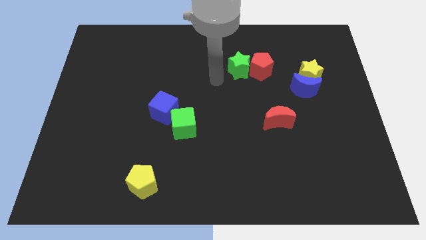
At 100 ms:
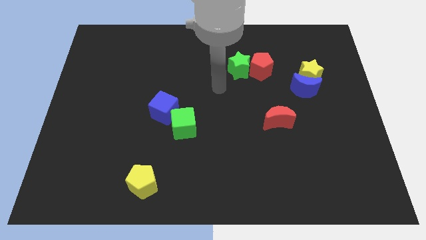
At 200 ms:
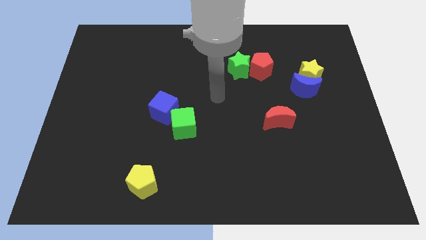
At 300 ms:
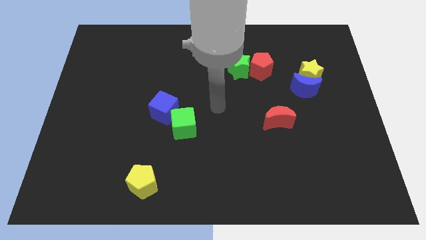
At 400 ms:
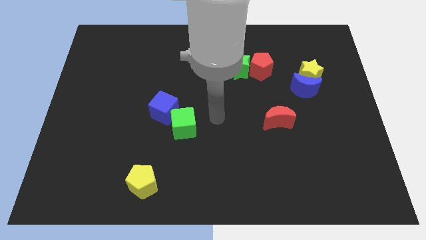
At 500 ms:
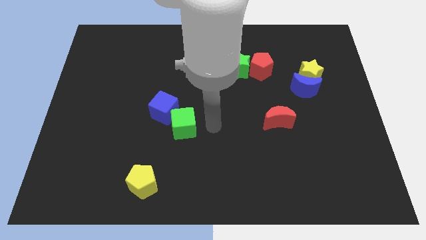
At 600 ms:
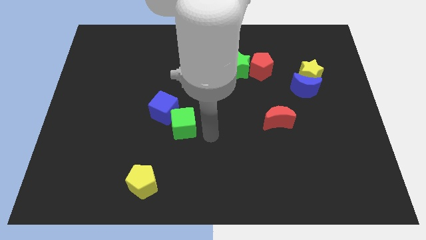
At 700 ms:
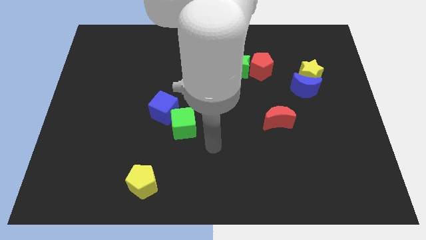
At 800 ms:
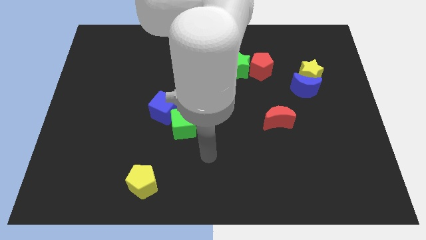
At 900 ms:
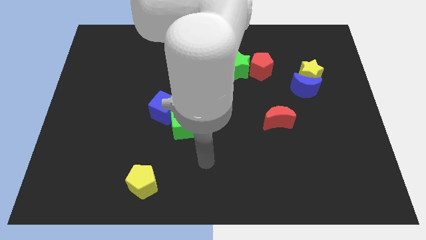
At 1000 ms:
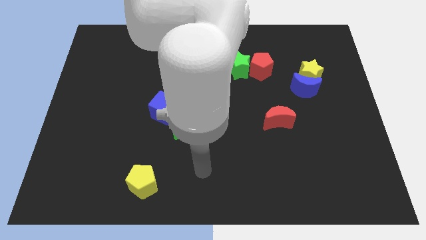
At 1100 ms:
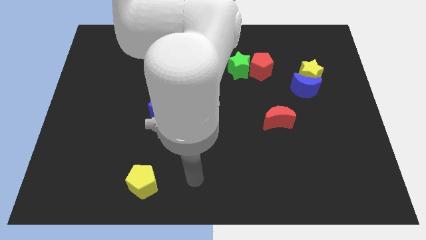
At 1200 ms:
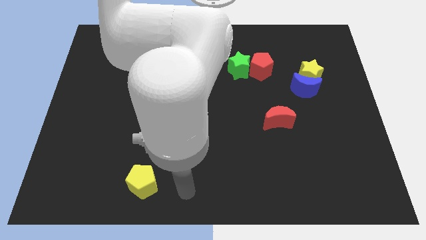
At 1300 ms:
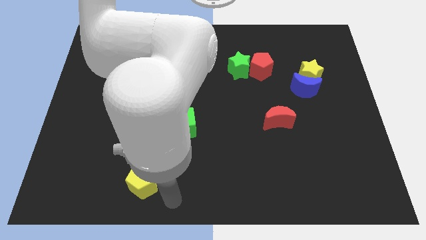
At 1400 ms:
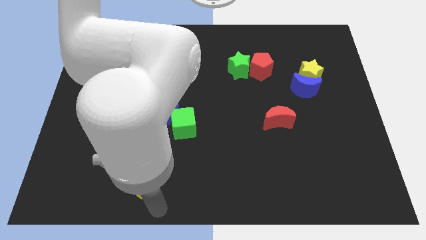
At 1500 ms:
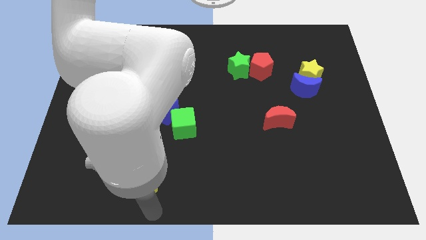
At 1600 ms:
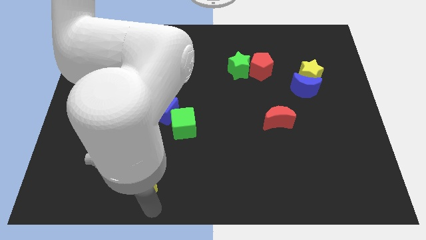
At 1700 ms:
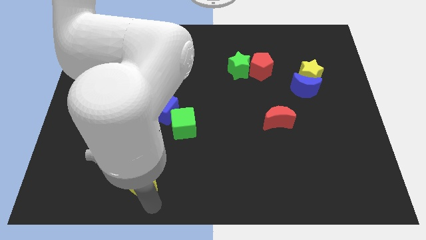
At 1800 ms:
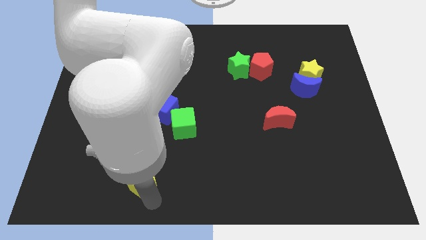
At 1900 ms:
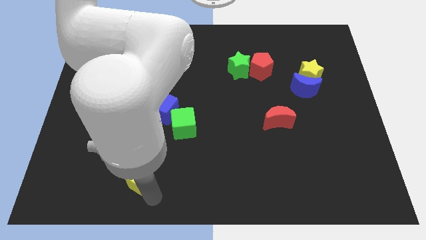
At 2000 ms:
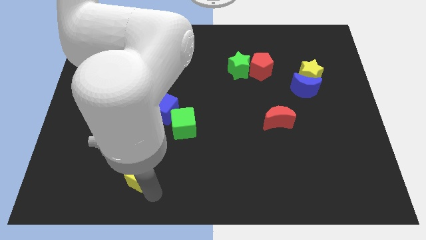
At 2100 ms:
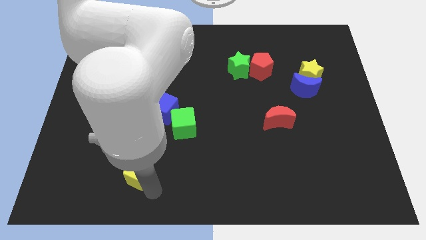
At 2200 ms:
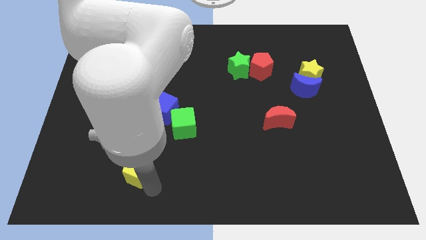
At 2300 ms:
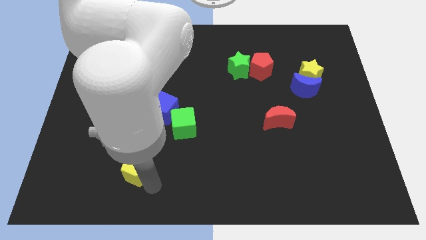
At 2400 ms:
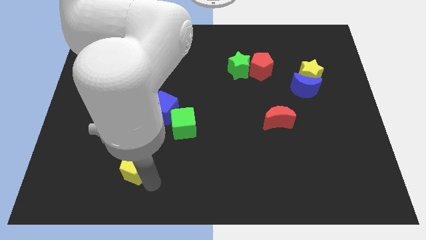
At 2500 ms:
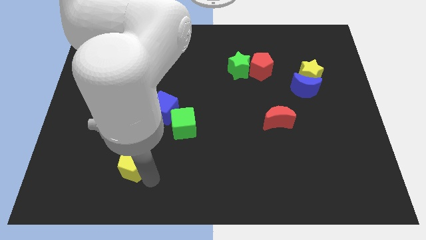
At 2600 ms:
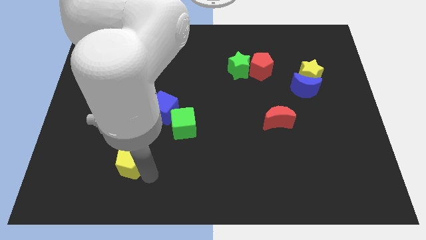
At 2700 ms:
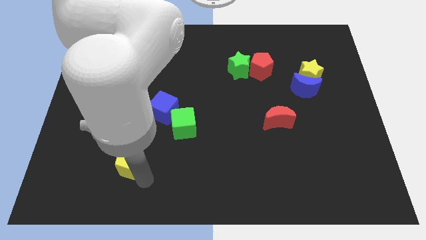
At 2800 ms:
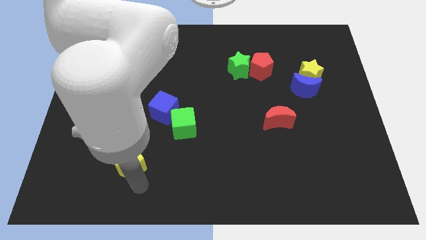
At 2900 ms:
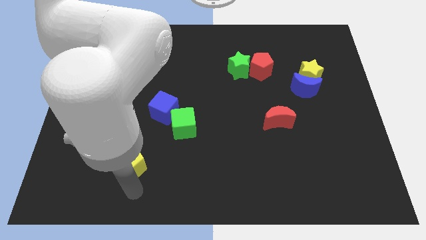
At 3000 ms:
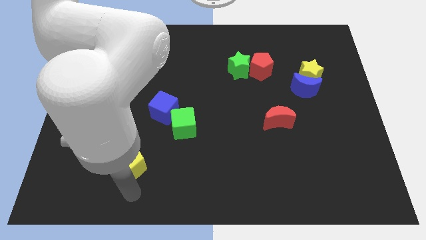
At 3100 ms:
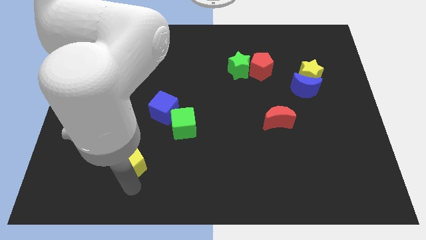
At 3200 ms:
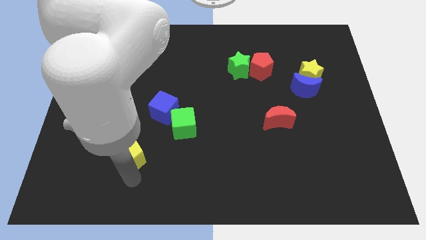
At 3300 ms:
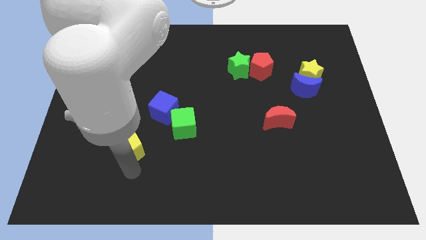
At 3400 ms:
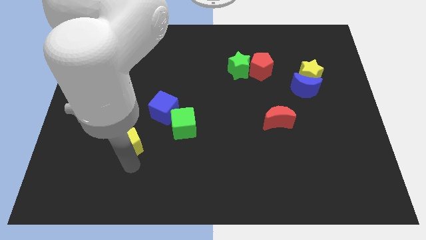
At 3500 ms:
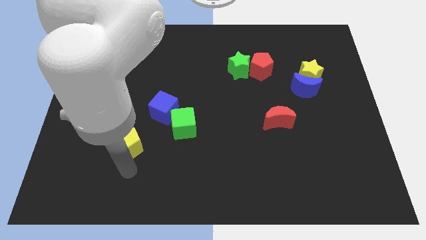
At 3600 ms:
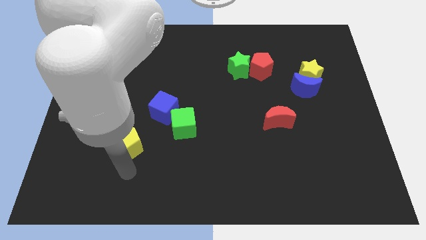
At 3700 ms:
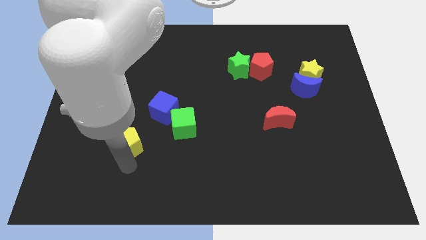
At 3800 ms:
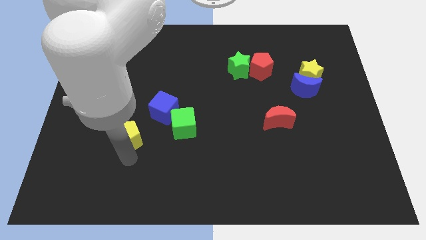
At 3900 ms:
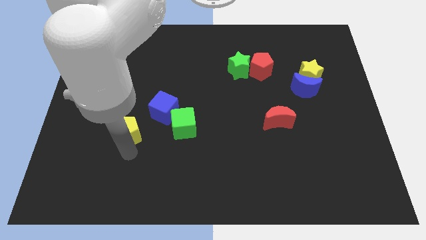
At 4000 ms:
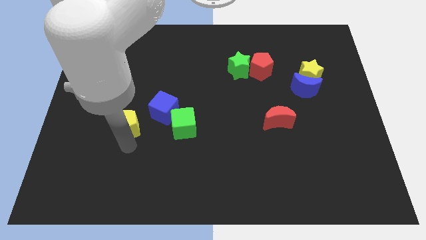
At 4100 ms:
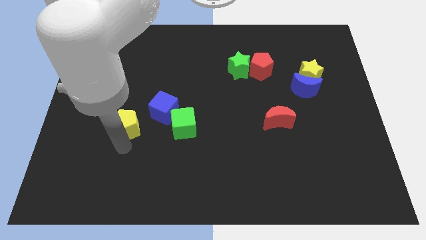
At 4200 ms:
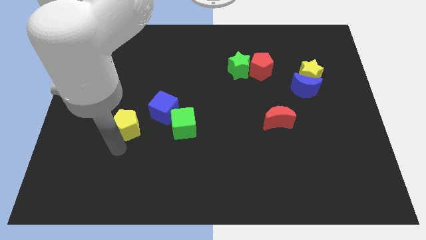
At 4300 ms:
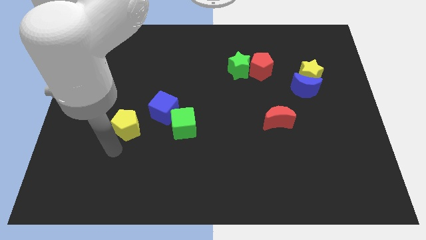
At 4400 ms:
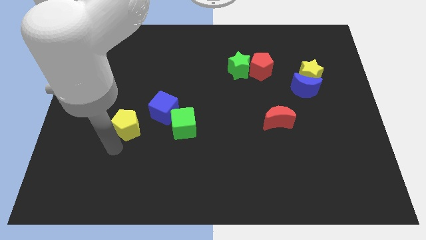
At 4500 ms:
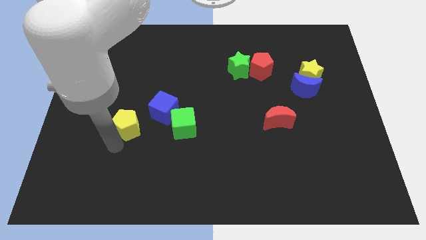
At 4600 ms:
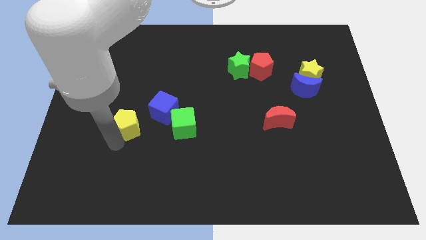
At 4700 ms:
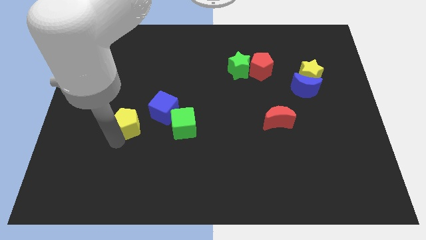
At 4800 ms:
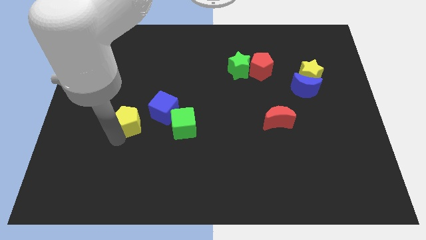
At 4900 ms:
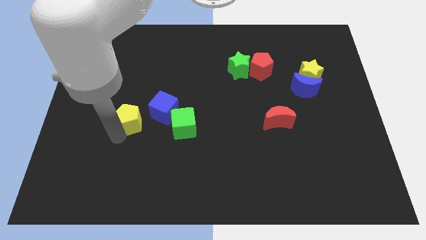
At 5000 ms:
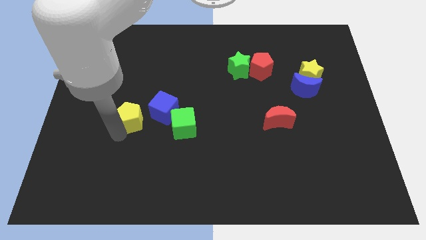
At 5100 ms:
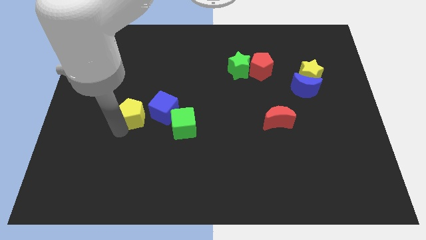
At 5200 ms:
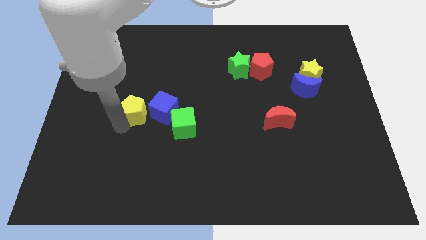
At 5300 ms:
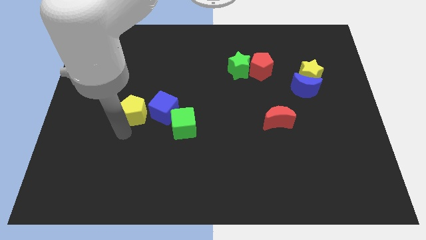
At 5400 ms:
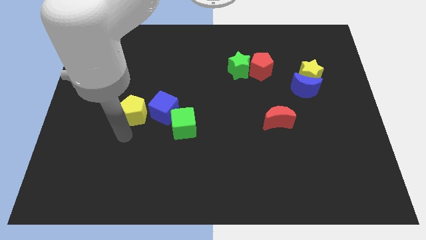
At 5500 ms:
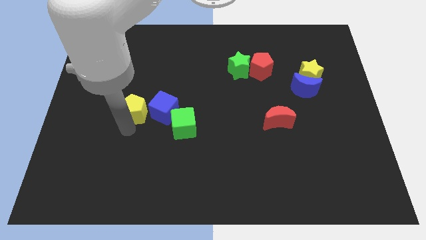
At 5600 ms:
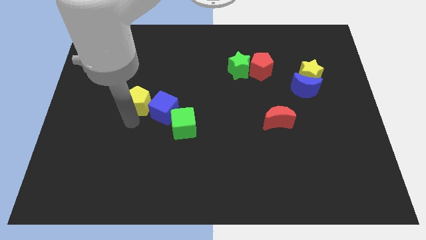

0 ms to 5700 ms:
slide the yellow pentagon upwards

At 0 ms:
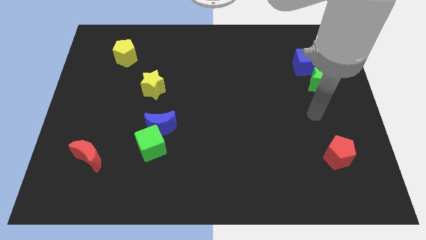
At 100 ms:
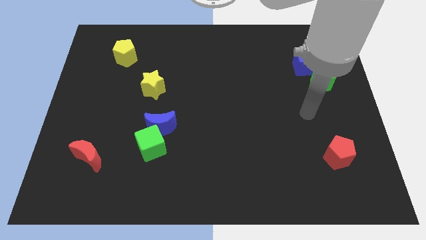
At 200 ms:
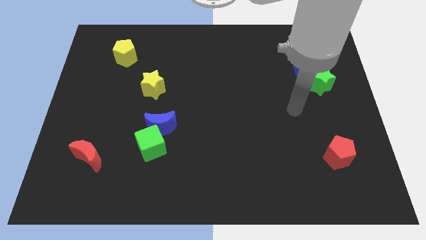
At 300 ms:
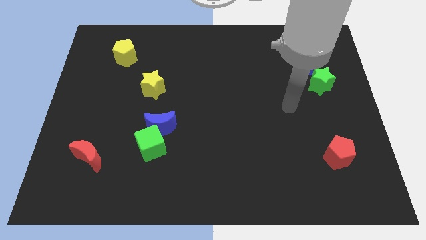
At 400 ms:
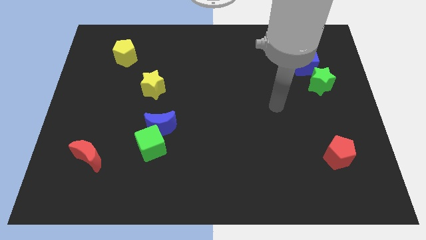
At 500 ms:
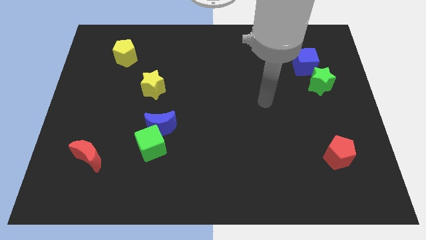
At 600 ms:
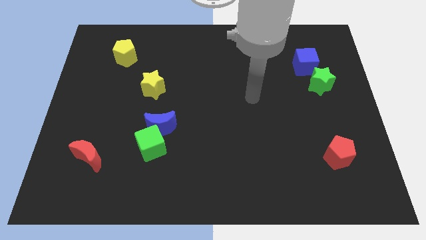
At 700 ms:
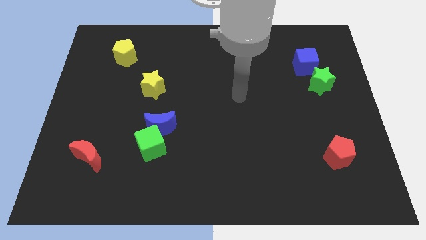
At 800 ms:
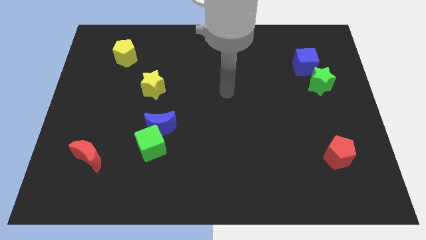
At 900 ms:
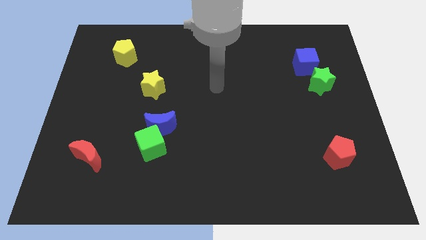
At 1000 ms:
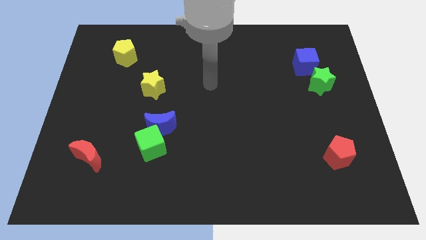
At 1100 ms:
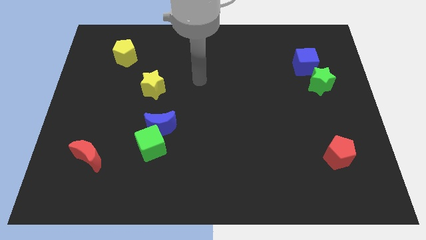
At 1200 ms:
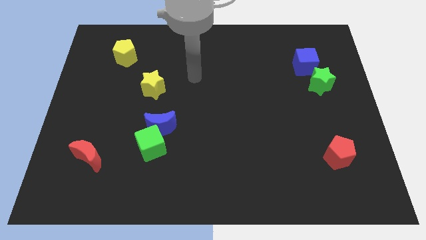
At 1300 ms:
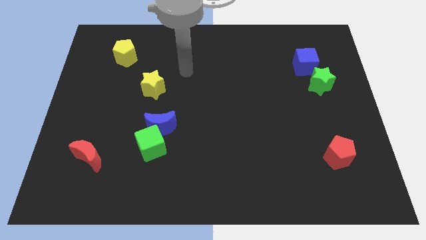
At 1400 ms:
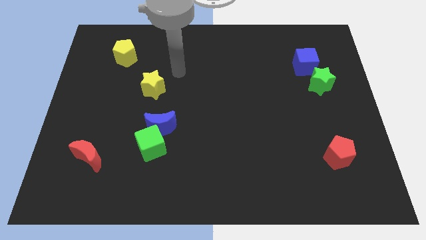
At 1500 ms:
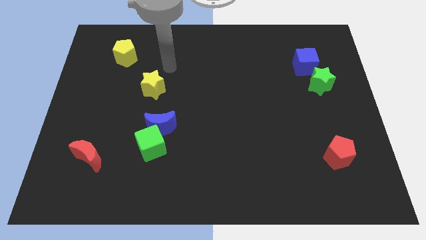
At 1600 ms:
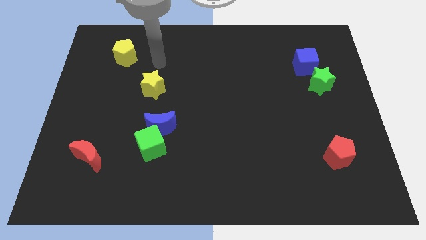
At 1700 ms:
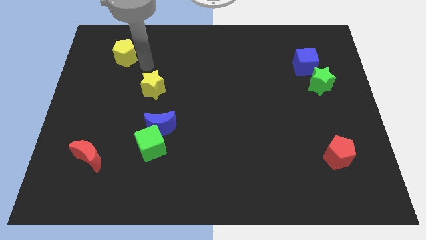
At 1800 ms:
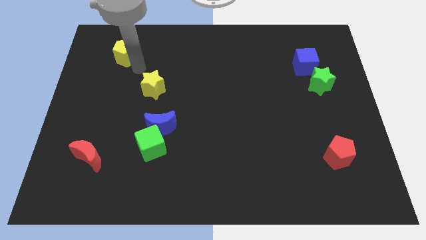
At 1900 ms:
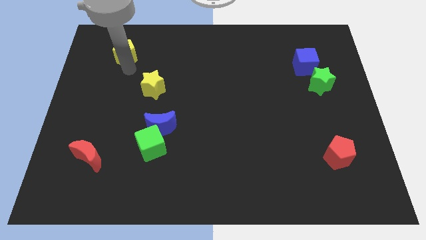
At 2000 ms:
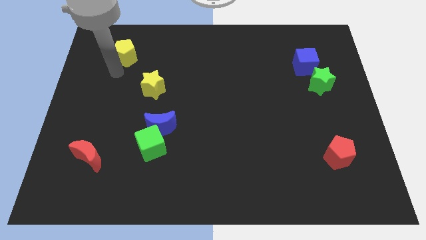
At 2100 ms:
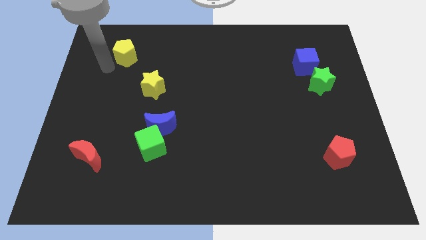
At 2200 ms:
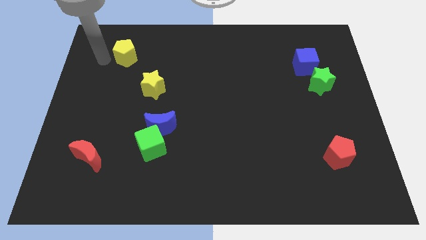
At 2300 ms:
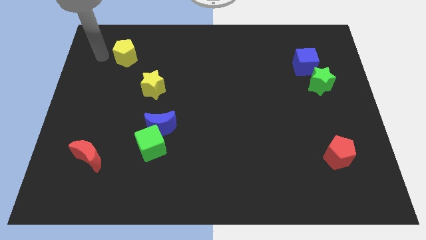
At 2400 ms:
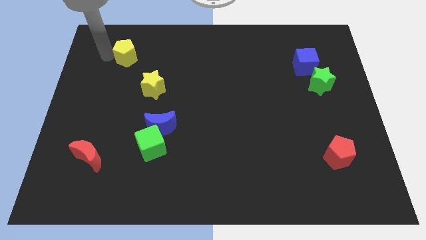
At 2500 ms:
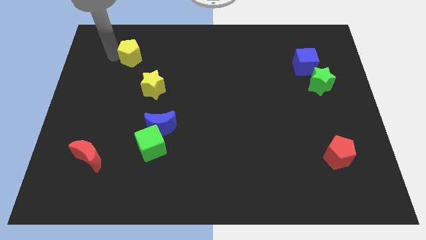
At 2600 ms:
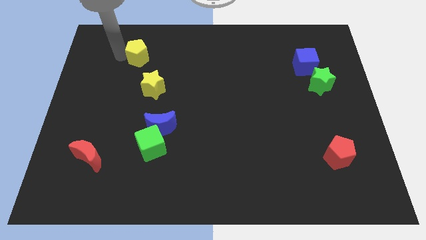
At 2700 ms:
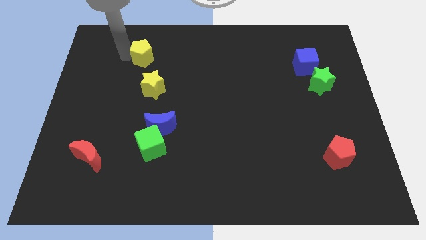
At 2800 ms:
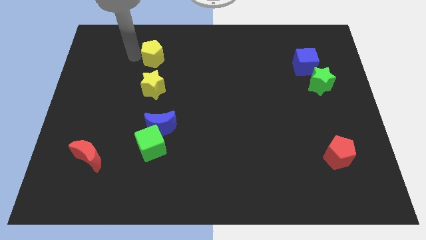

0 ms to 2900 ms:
push the yellow pentagon a little right
